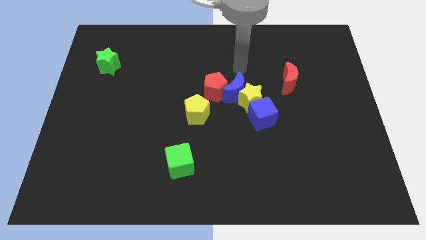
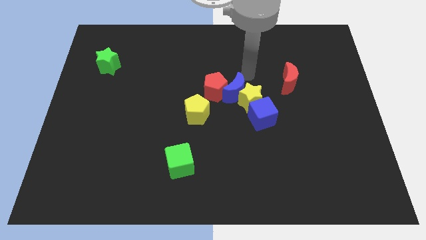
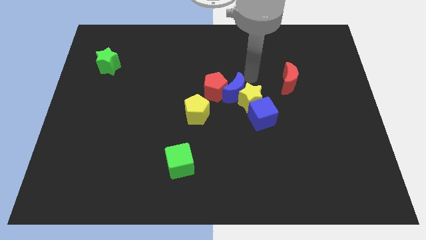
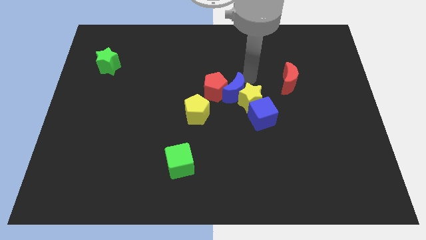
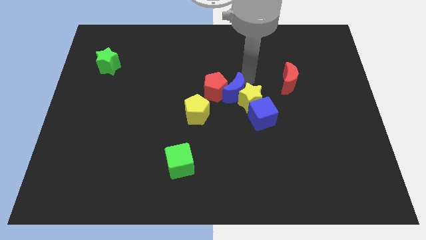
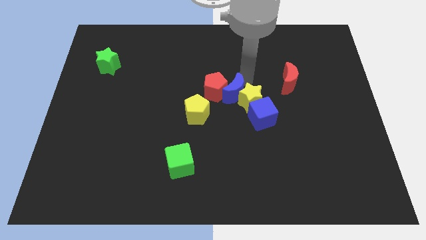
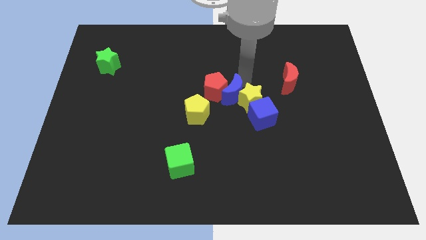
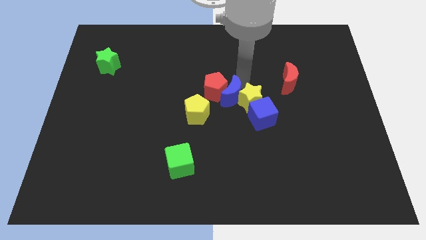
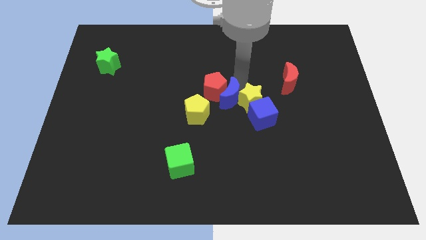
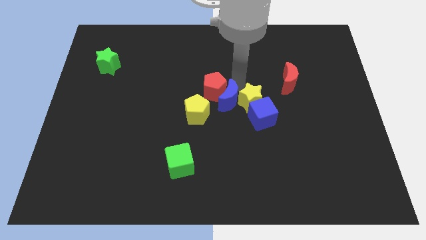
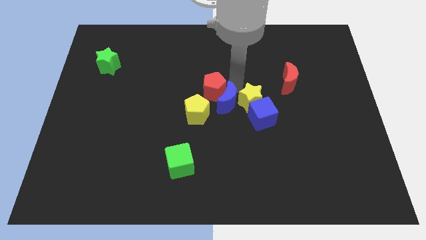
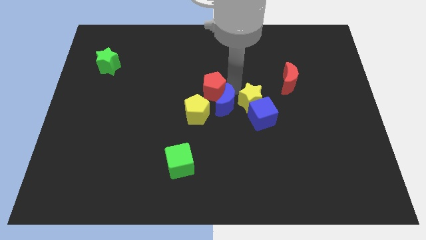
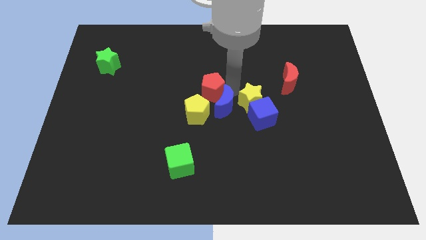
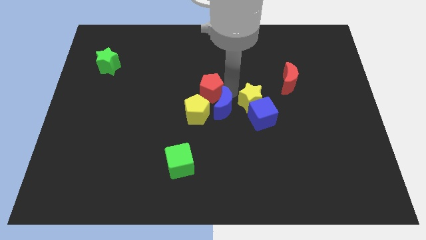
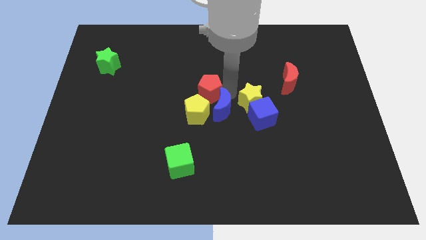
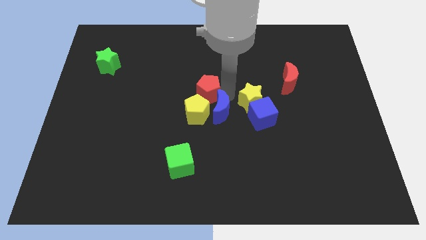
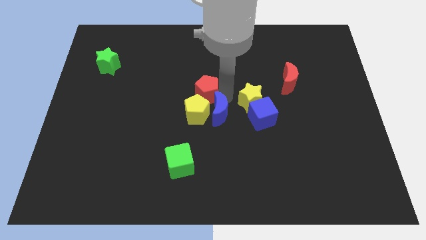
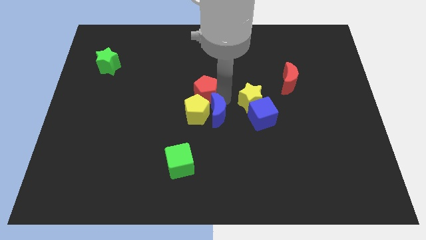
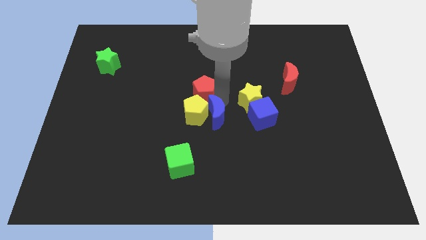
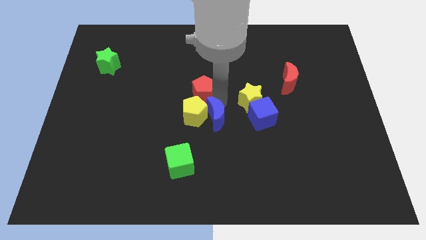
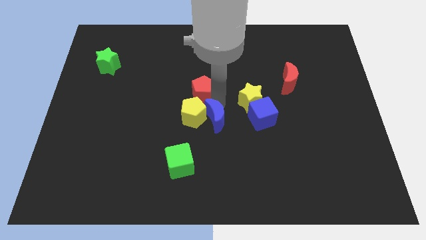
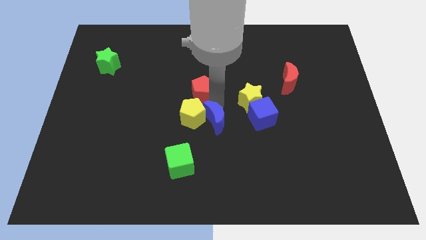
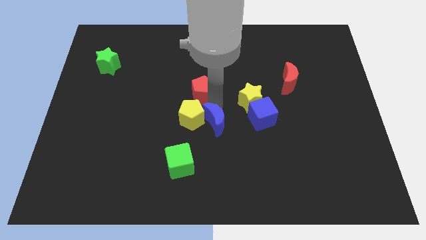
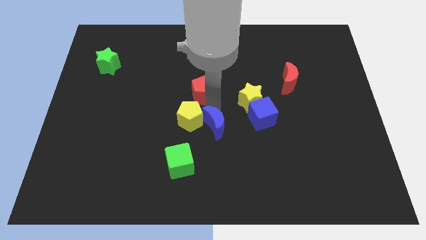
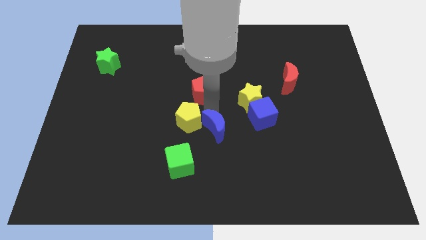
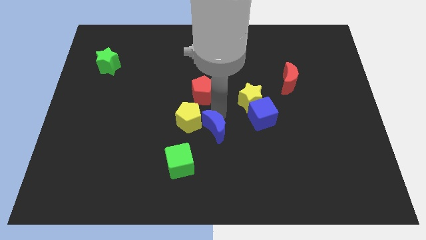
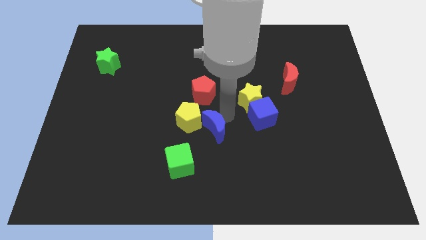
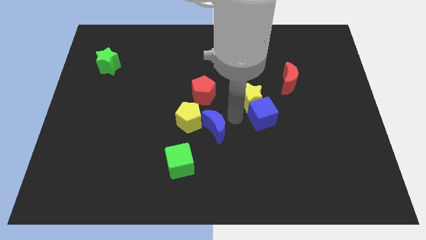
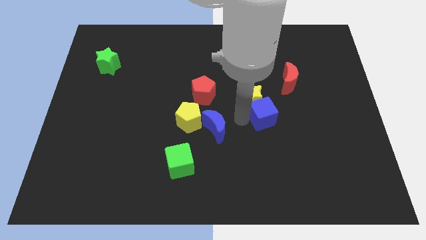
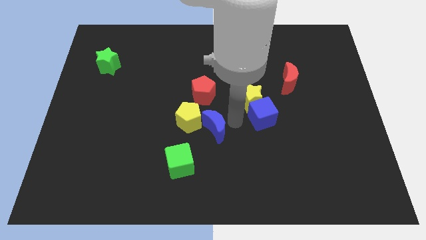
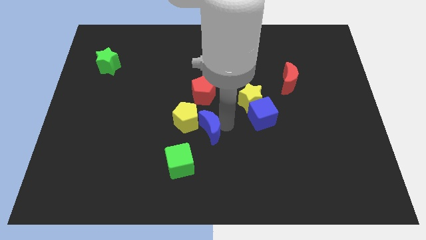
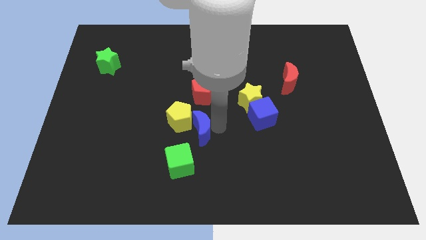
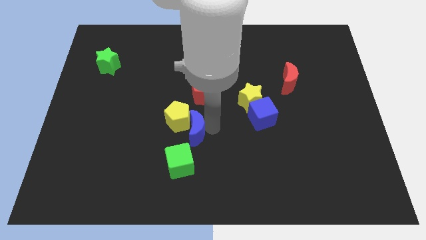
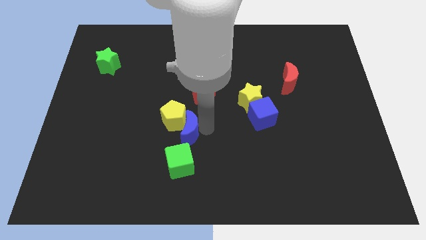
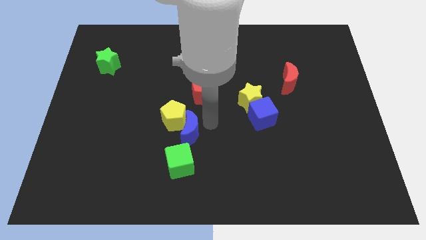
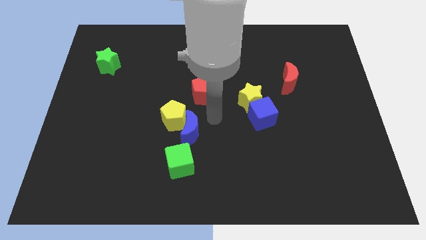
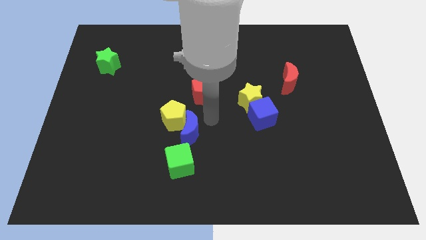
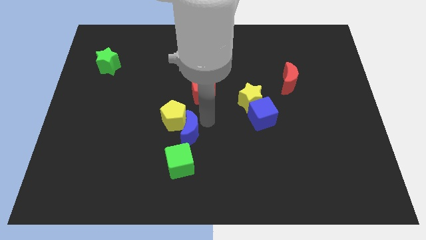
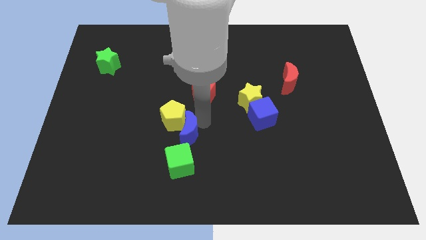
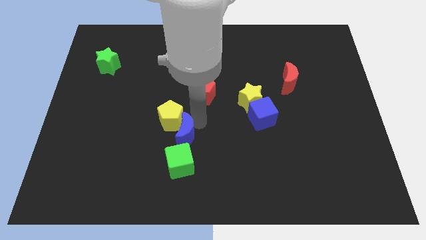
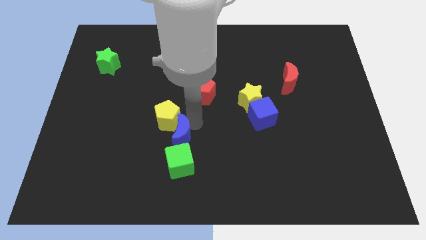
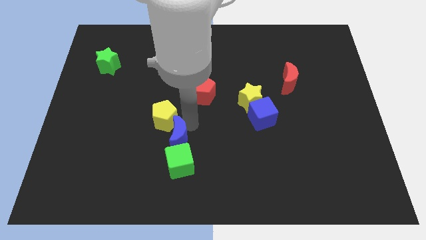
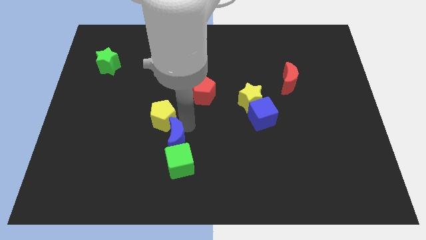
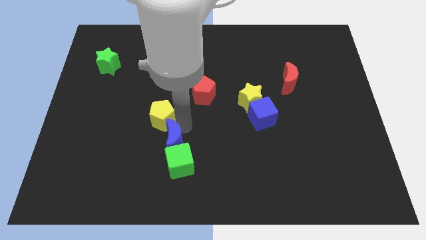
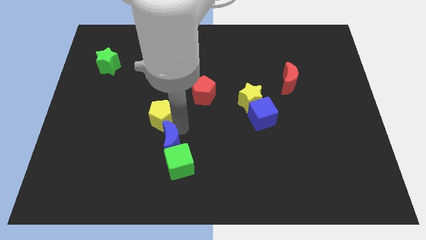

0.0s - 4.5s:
move the blue moon diagonally down and to the left

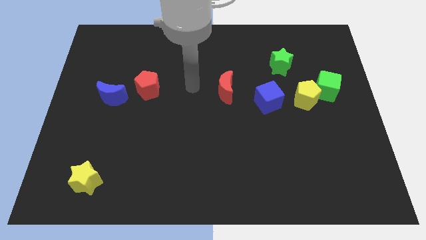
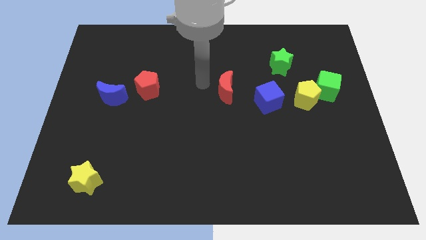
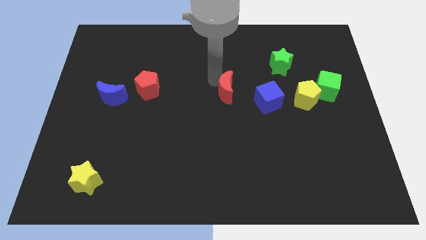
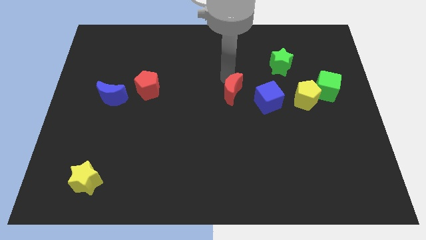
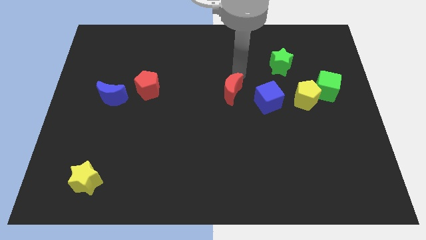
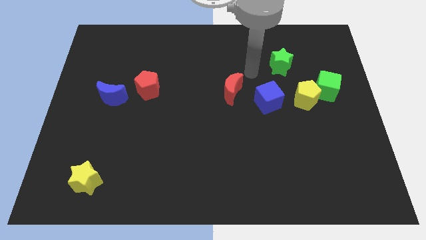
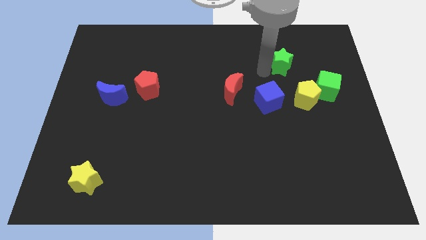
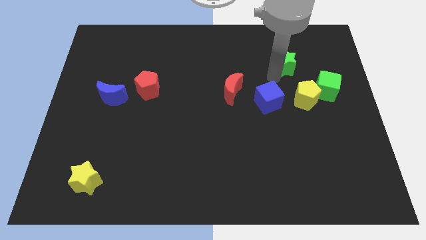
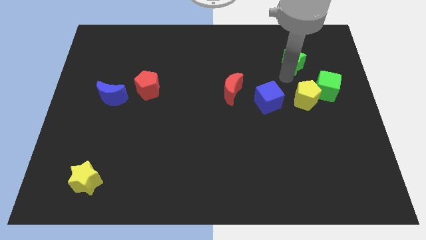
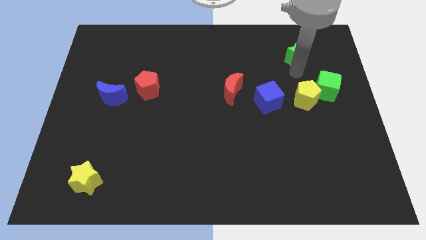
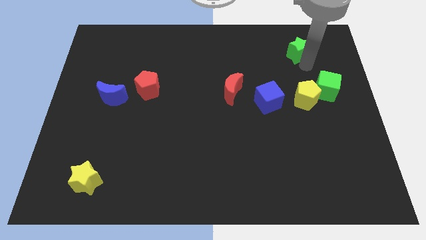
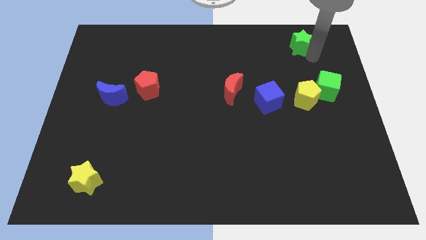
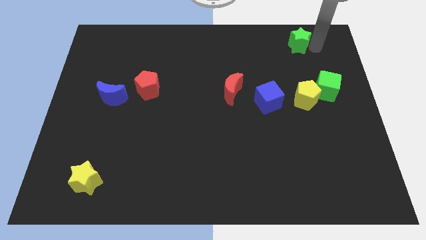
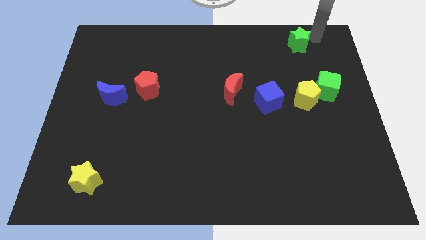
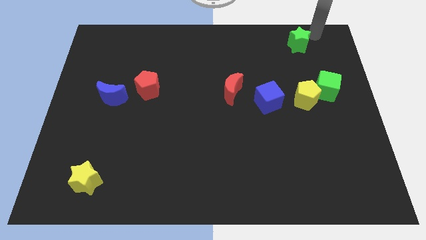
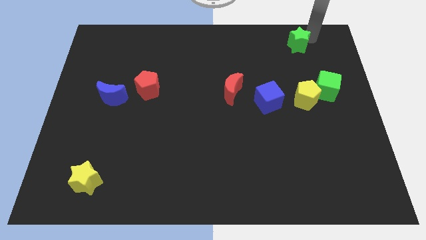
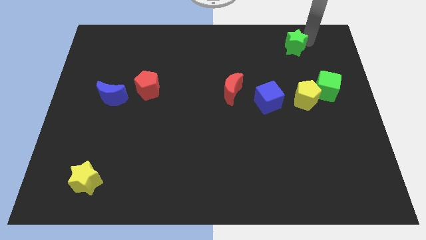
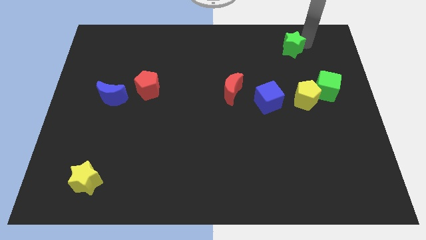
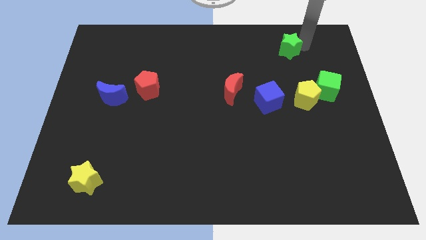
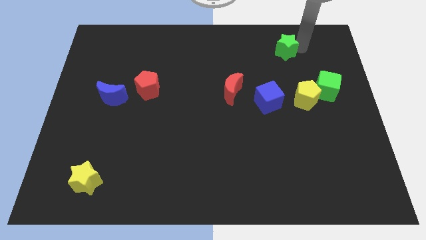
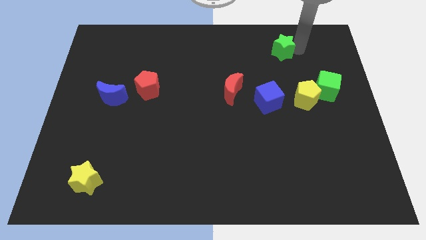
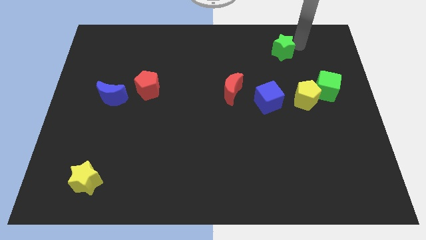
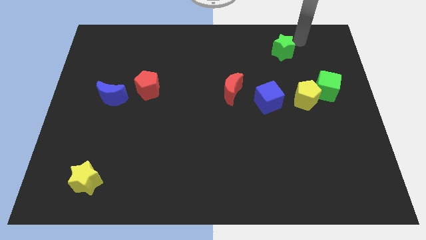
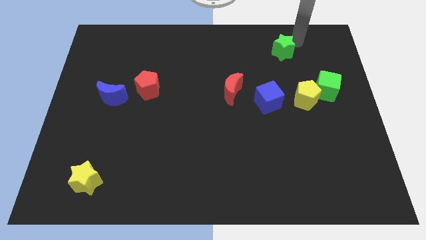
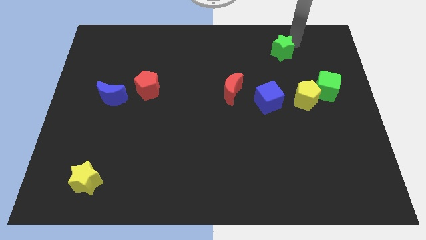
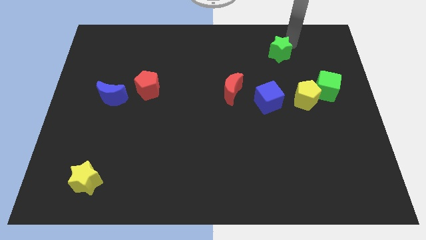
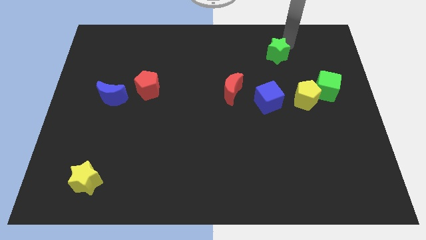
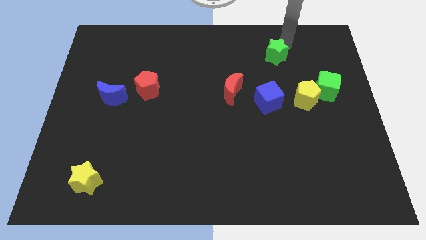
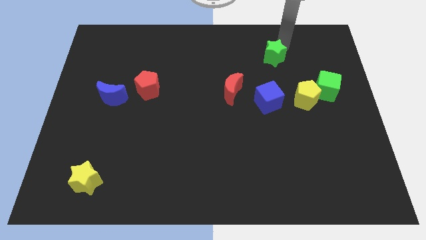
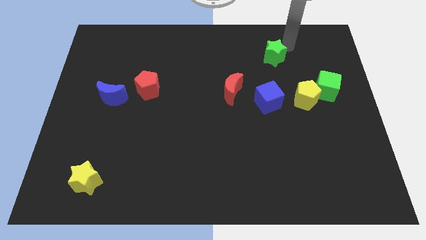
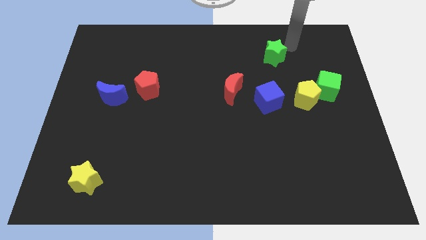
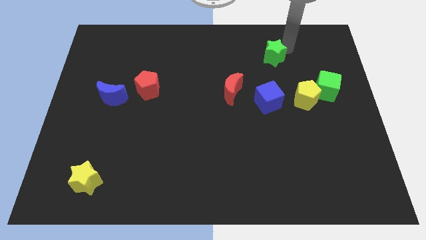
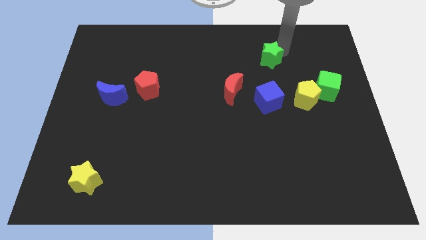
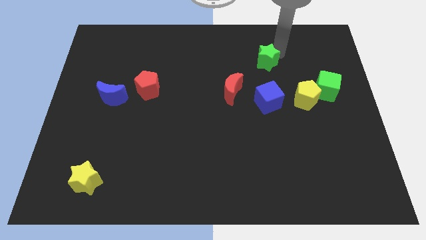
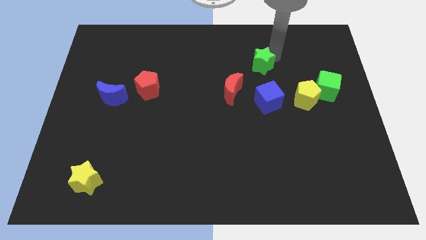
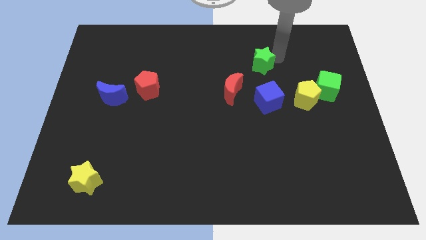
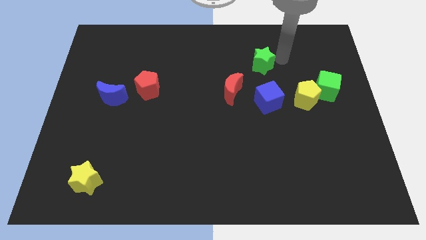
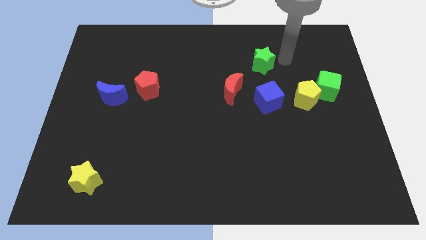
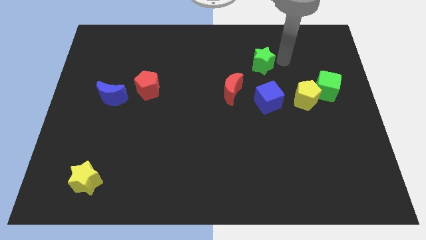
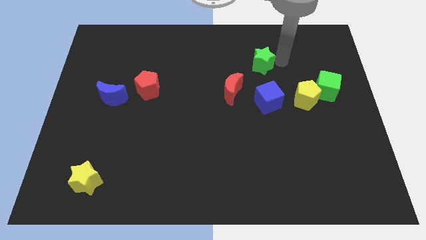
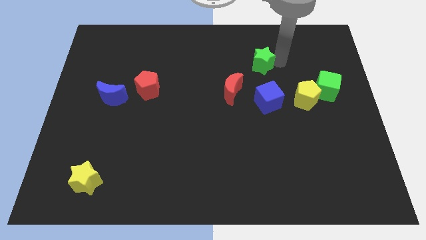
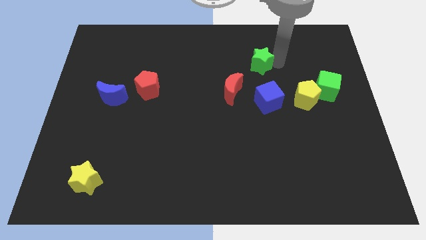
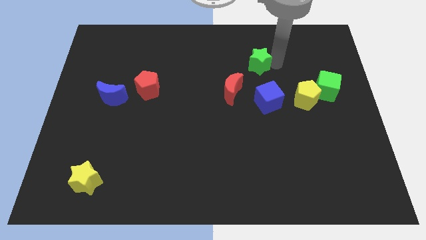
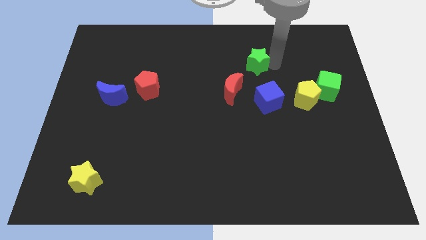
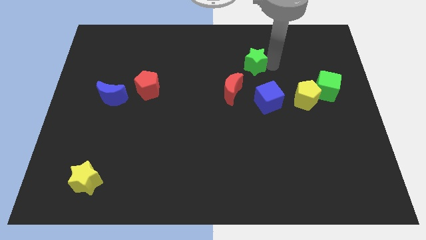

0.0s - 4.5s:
move the green star to the left a bit
